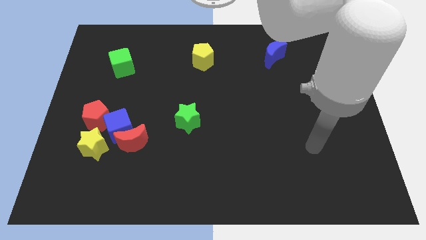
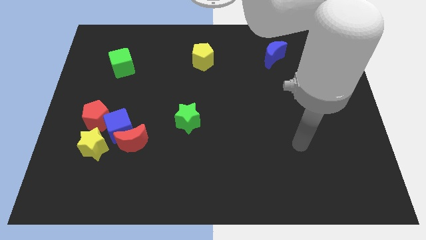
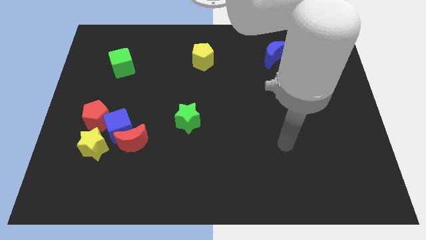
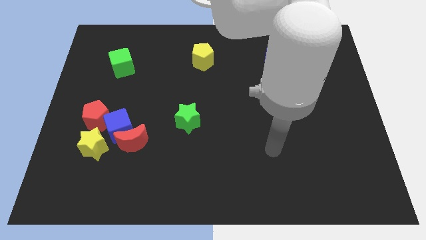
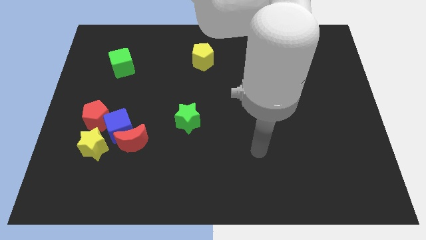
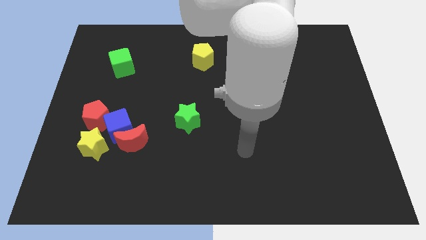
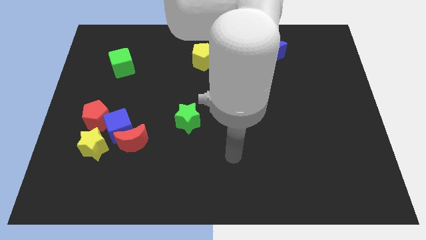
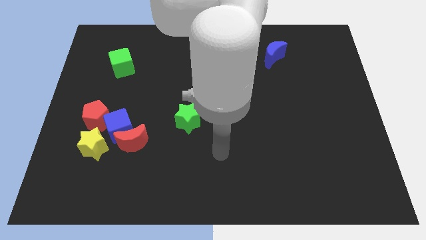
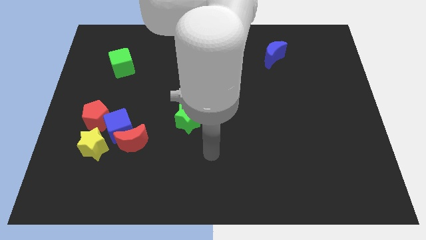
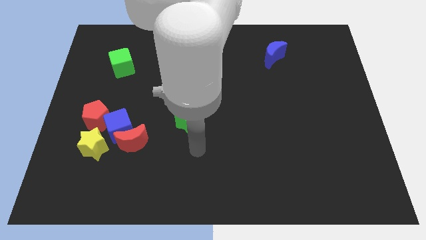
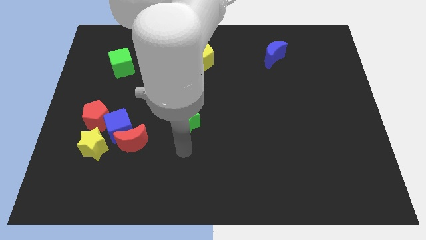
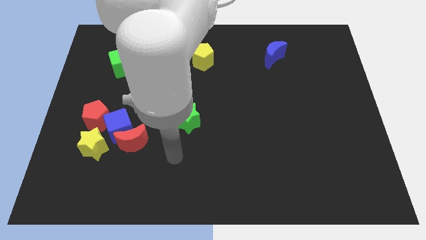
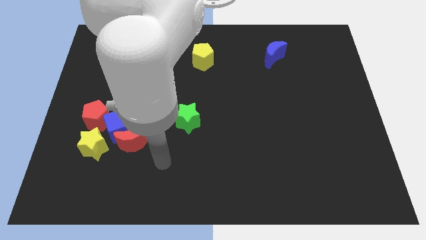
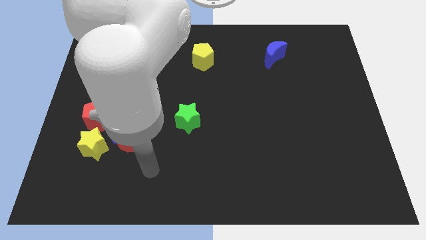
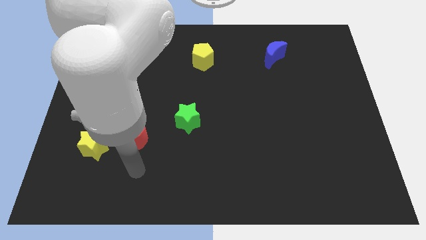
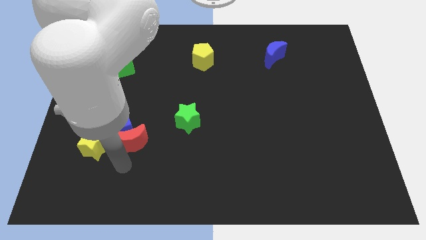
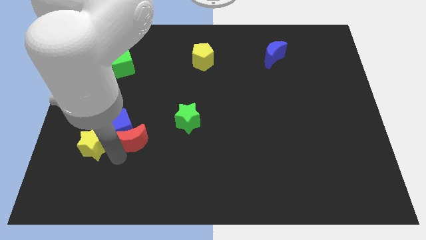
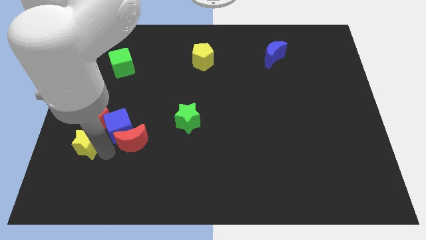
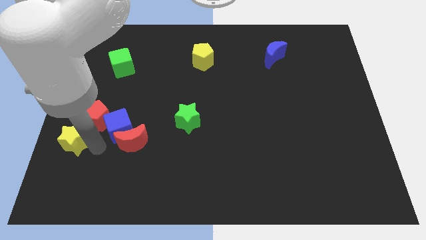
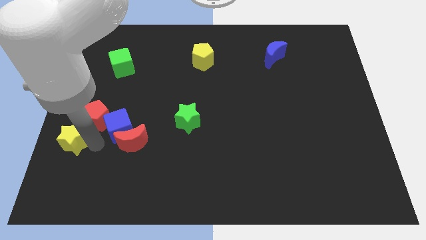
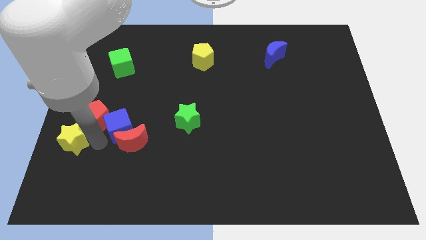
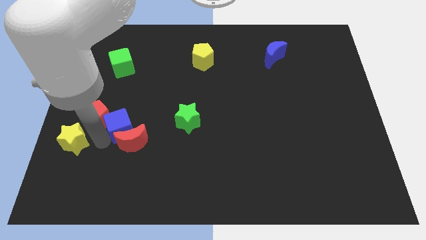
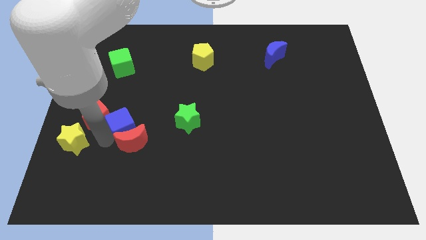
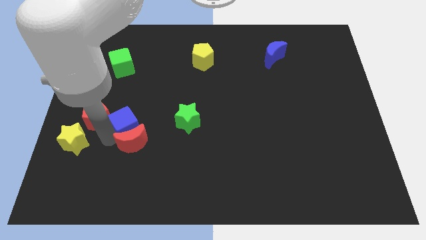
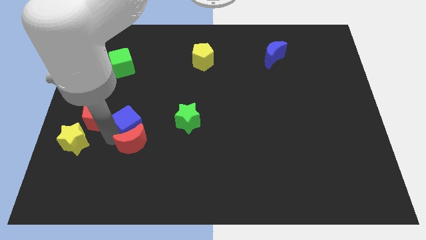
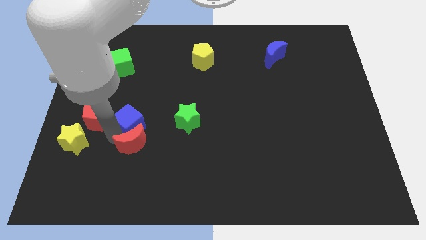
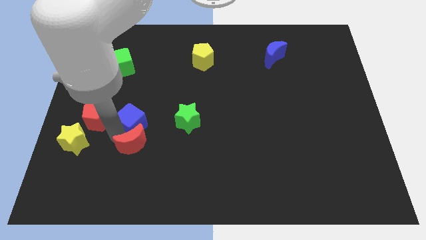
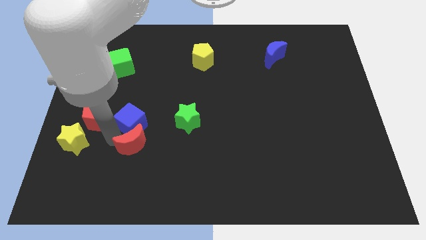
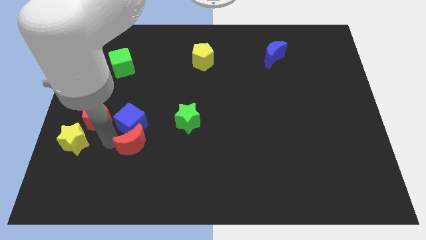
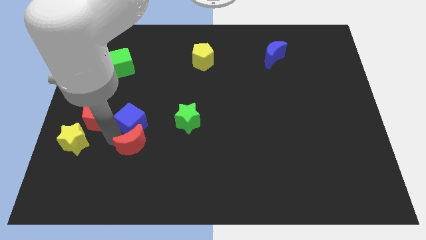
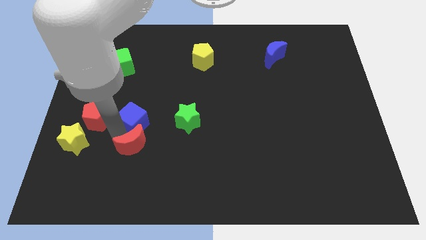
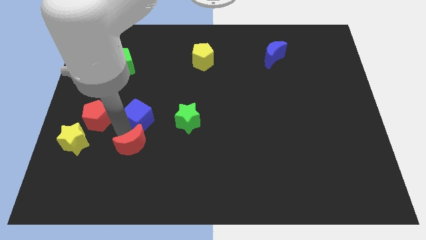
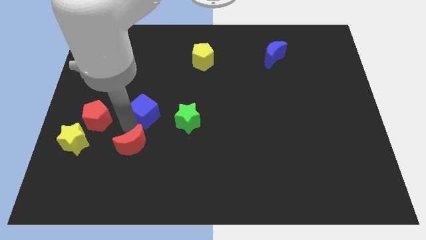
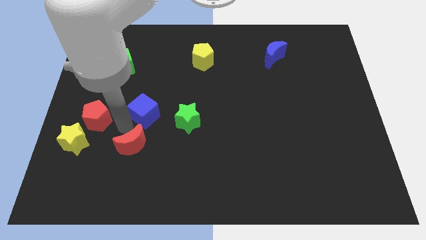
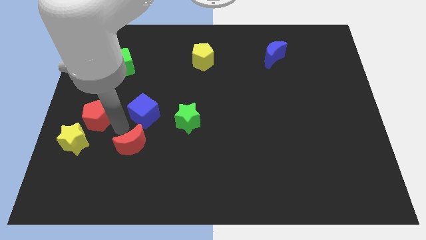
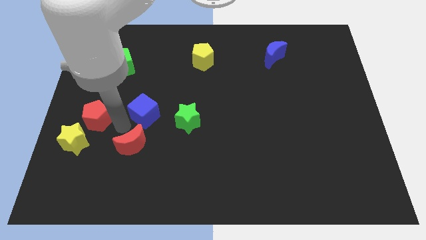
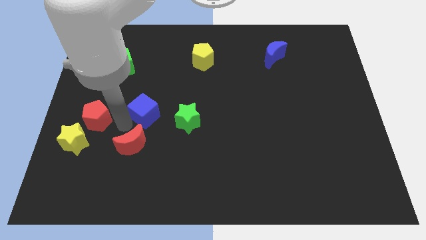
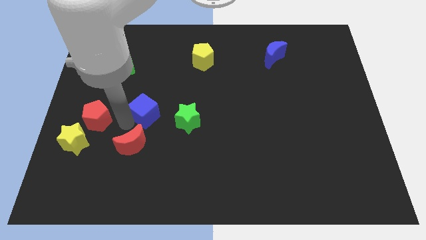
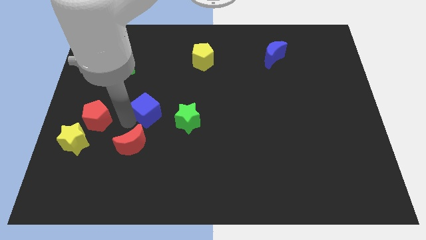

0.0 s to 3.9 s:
push the blue cube a little upwards and right

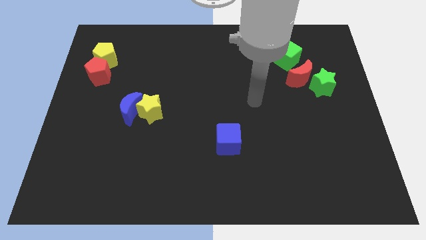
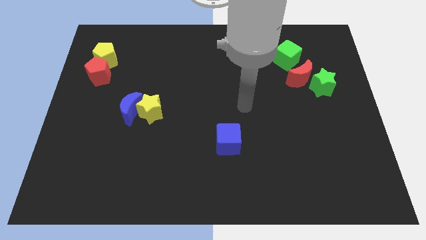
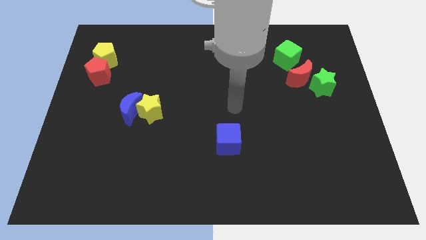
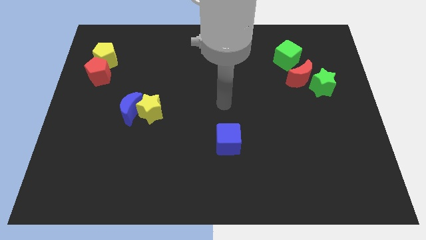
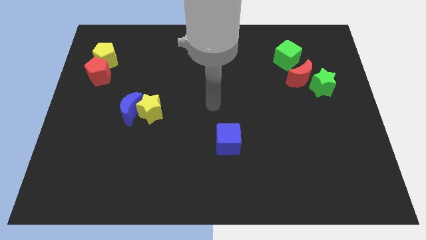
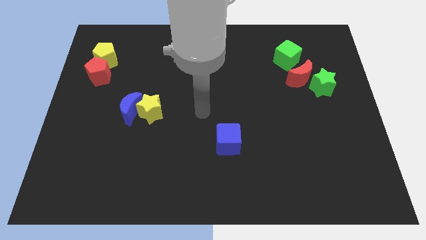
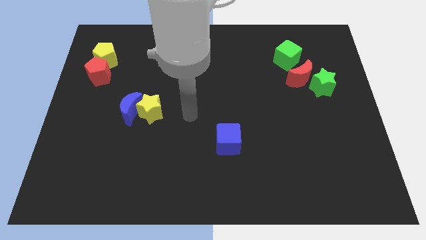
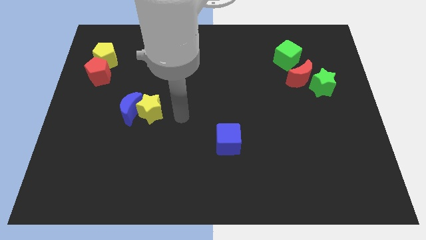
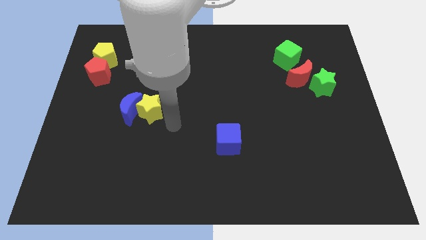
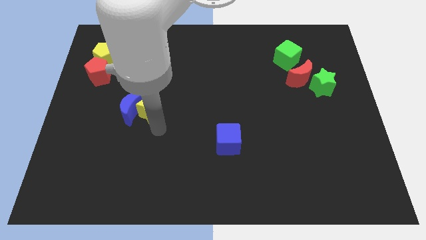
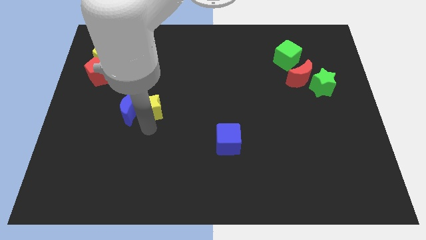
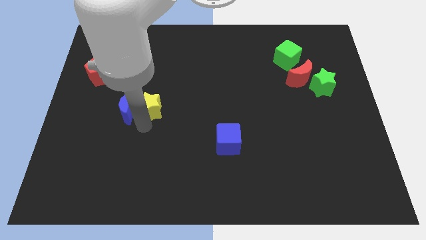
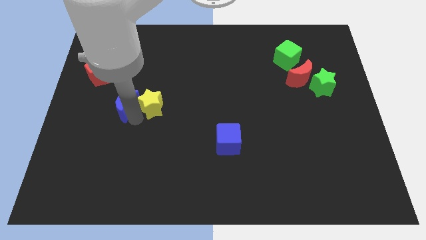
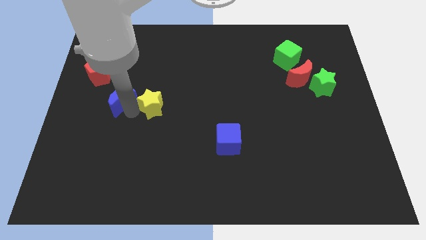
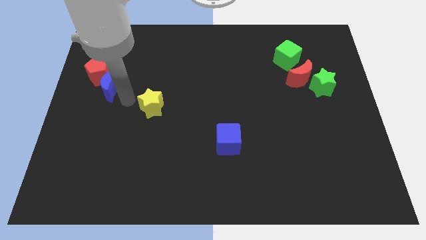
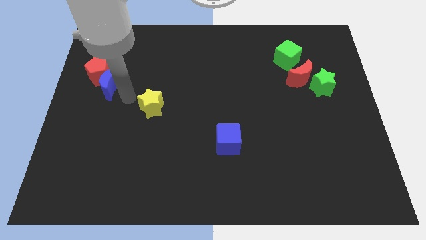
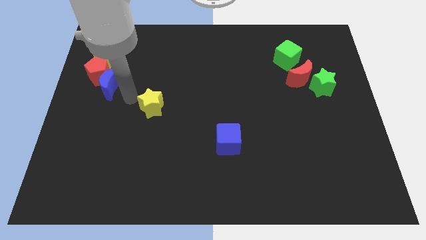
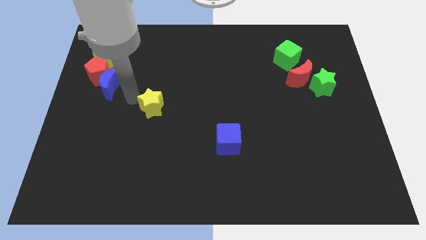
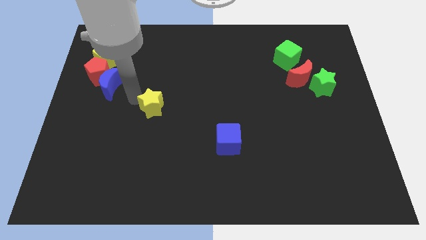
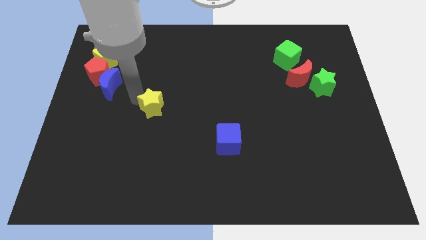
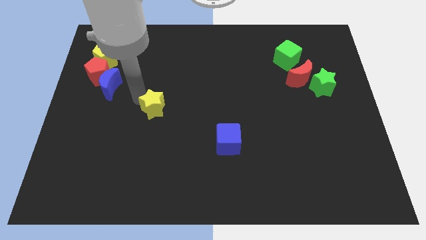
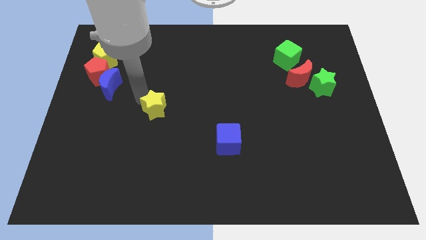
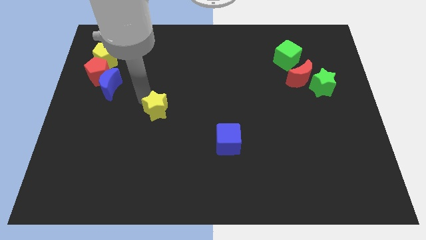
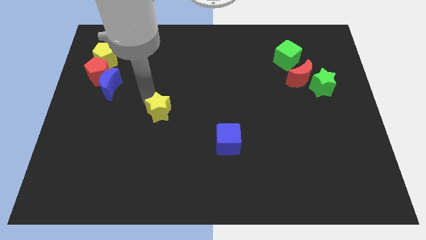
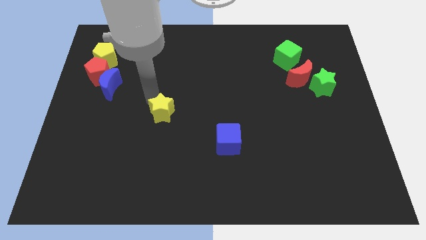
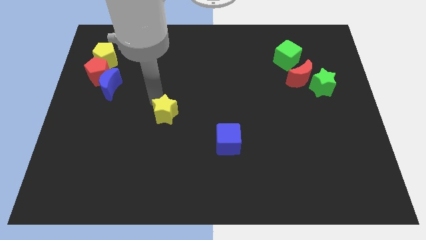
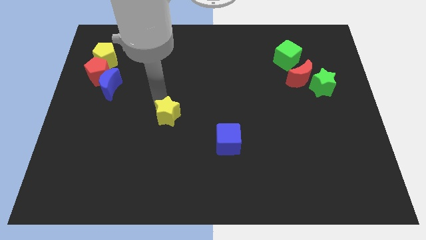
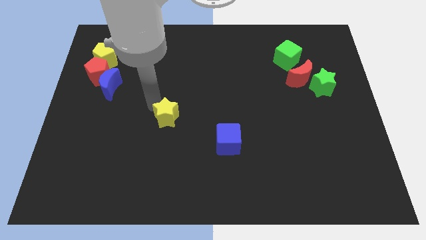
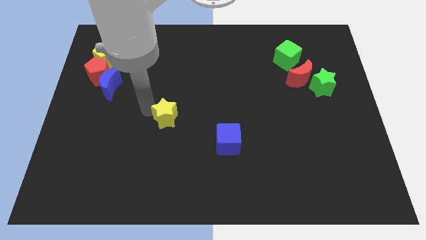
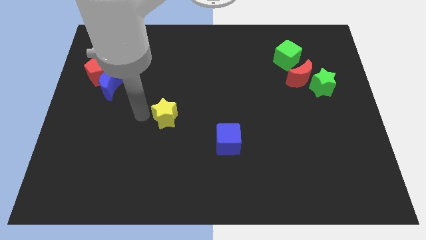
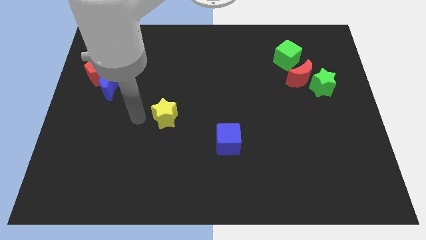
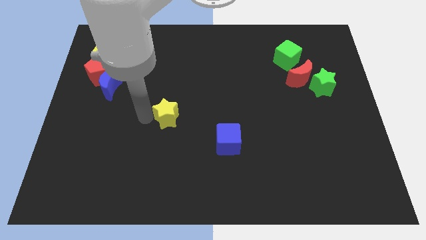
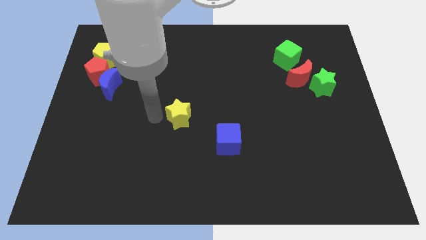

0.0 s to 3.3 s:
slightly push the yellow star right

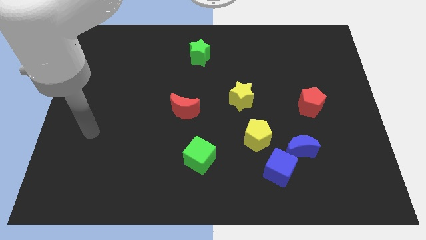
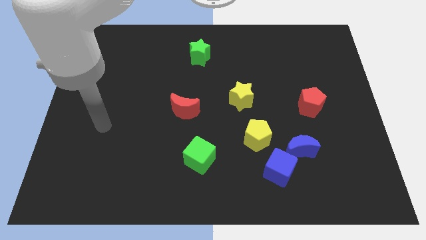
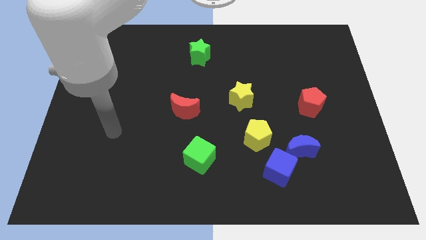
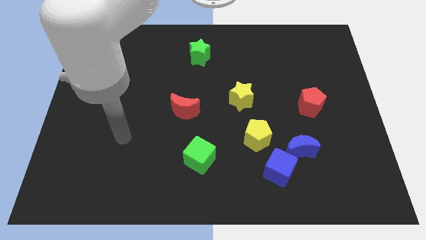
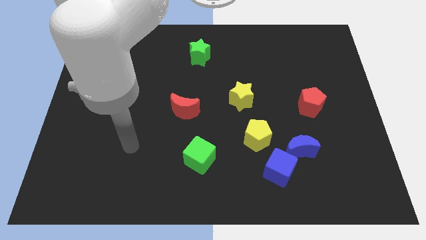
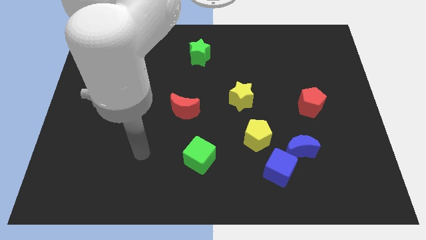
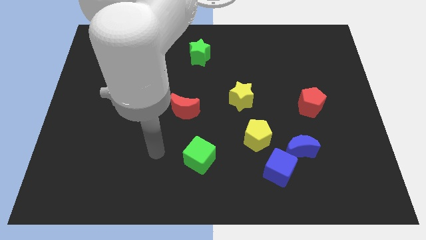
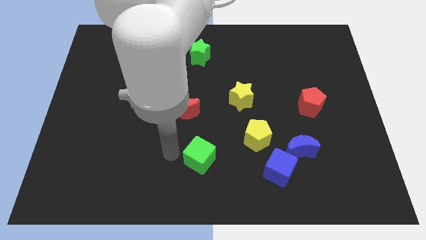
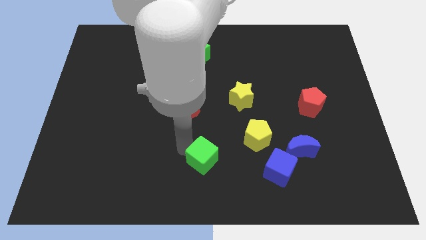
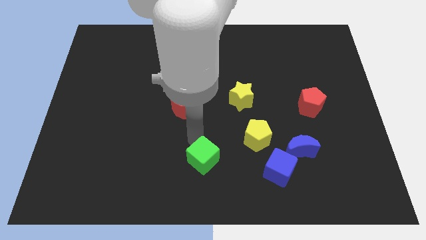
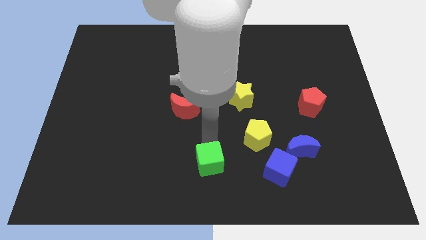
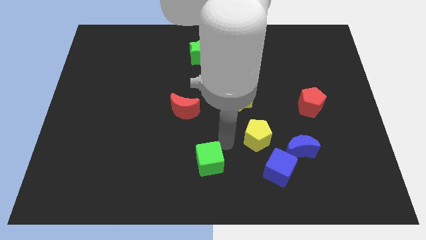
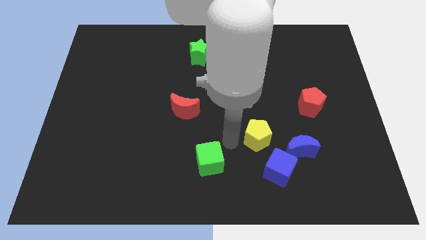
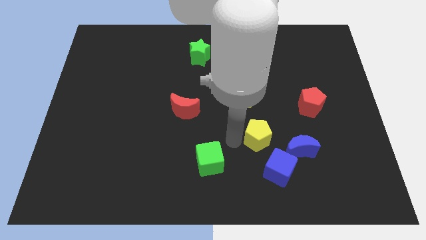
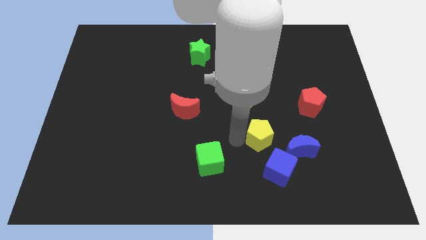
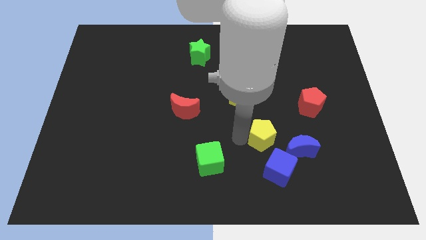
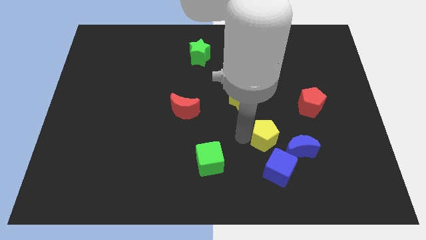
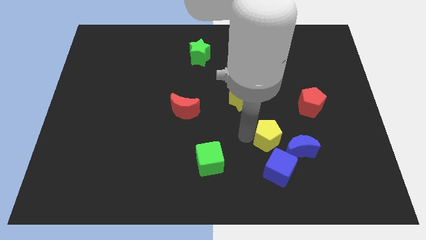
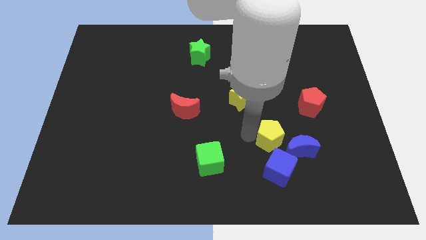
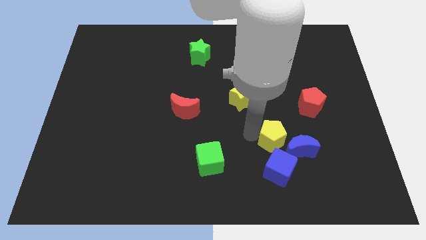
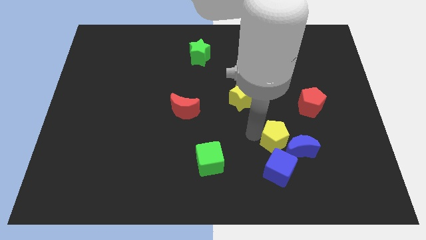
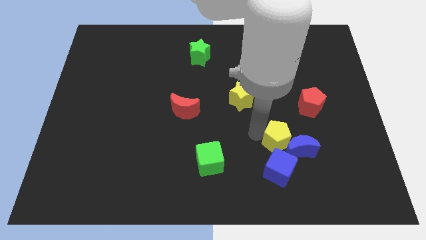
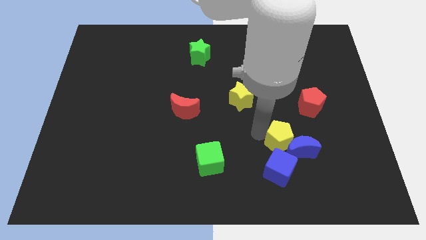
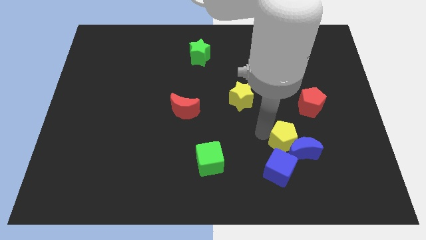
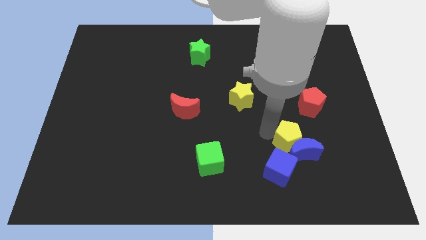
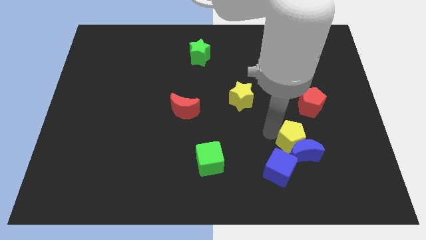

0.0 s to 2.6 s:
slide the yellow pentagon to the right somewhat
